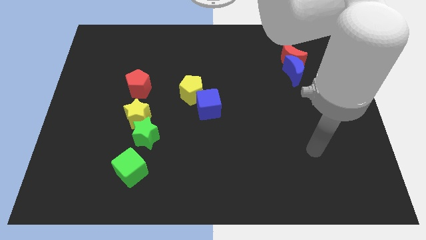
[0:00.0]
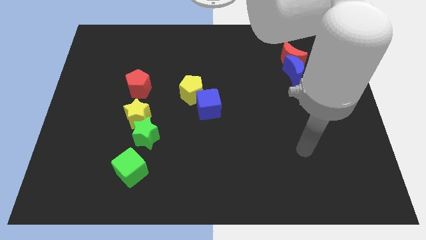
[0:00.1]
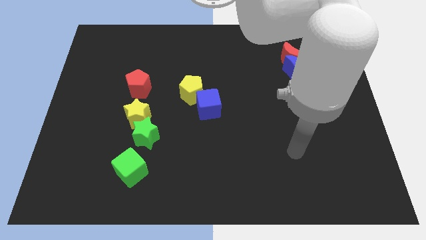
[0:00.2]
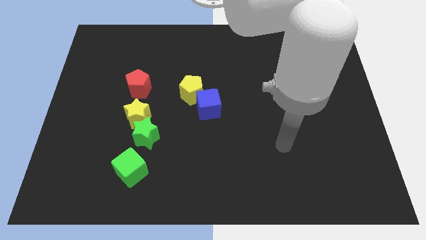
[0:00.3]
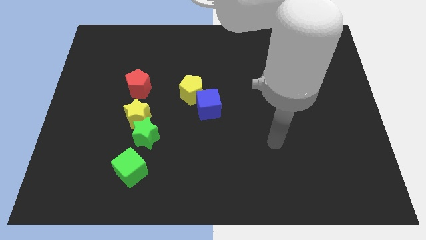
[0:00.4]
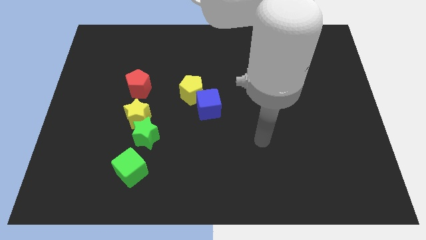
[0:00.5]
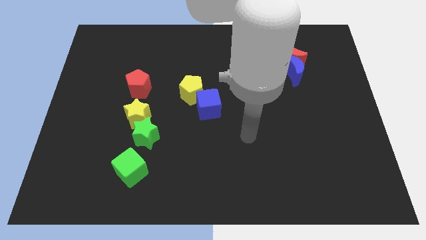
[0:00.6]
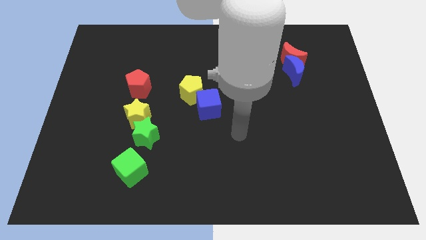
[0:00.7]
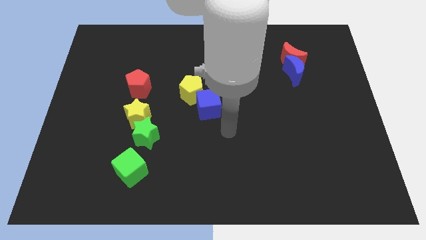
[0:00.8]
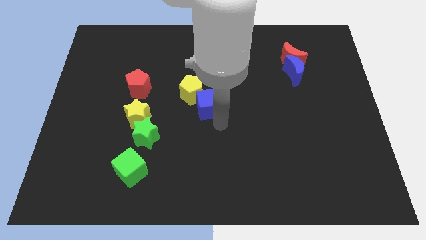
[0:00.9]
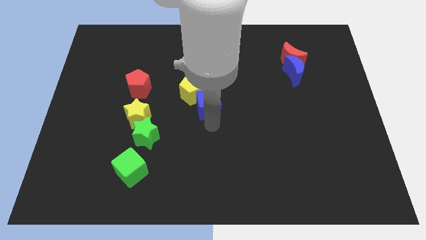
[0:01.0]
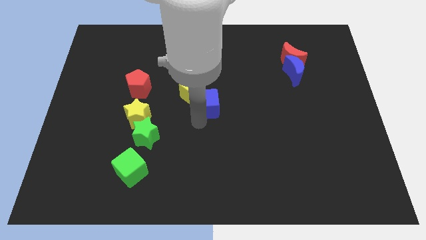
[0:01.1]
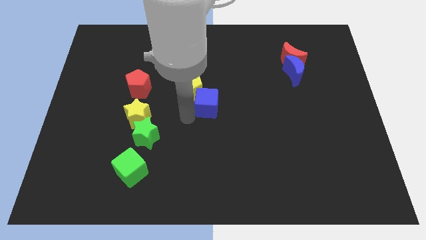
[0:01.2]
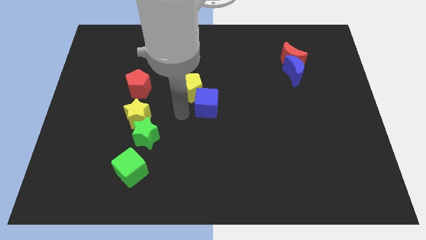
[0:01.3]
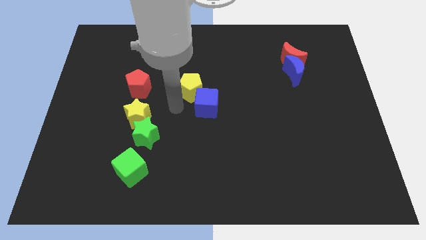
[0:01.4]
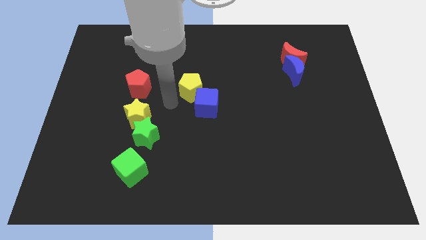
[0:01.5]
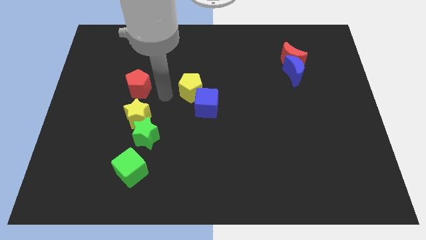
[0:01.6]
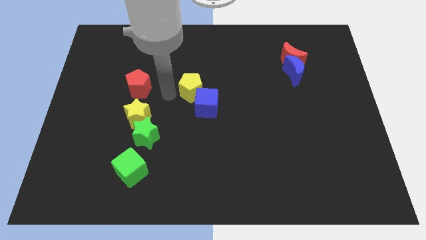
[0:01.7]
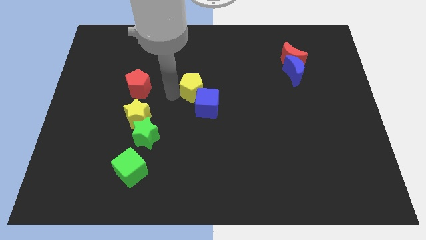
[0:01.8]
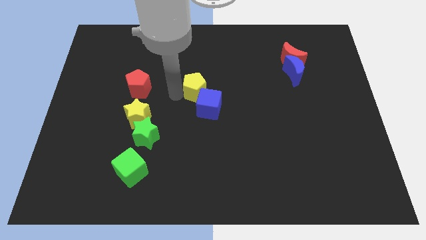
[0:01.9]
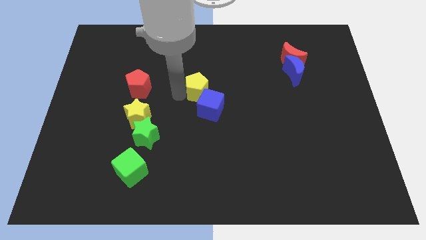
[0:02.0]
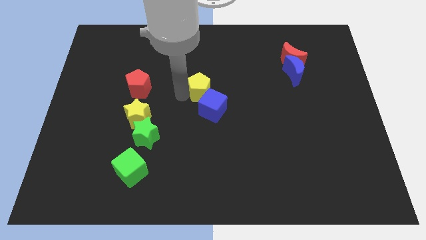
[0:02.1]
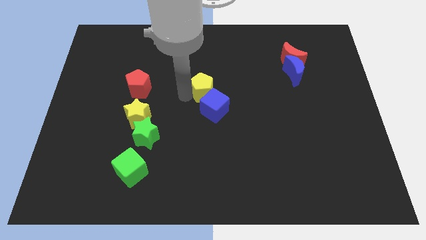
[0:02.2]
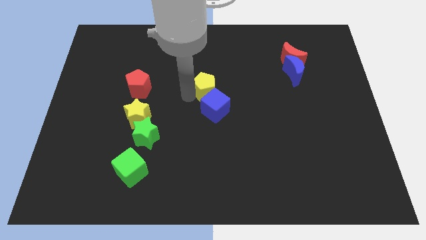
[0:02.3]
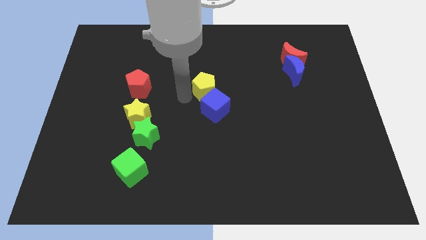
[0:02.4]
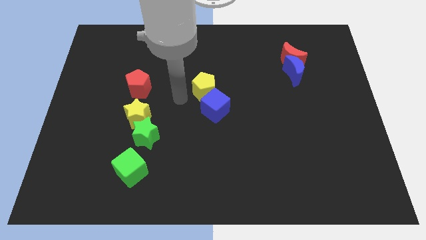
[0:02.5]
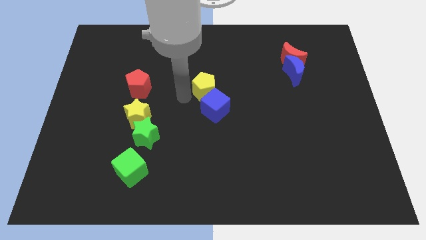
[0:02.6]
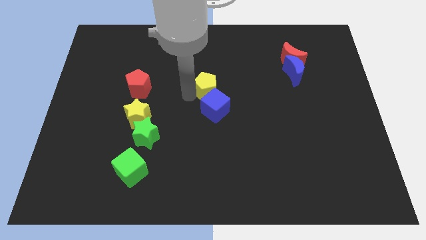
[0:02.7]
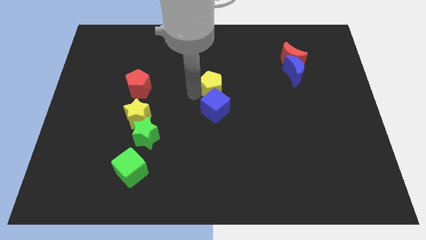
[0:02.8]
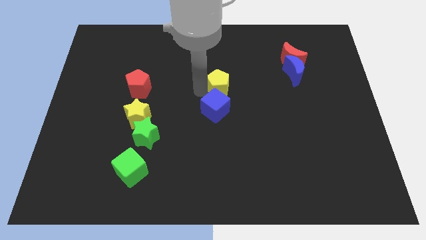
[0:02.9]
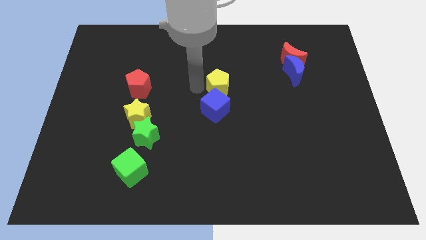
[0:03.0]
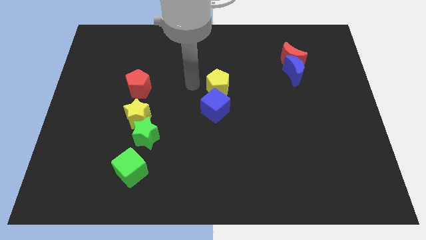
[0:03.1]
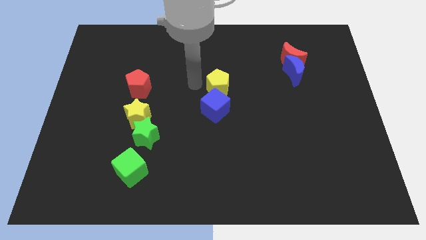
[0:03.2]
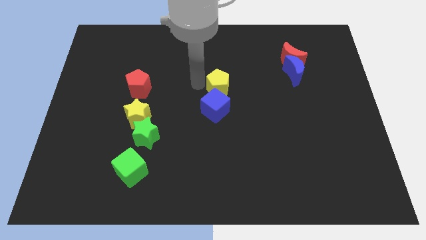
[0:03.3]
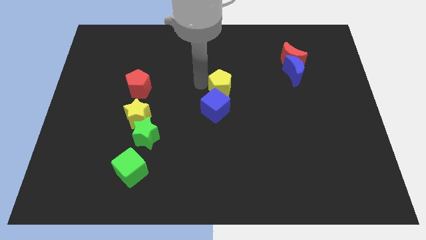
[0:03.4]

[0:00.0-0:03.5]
slightly push the yellow pentagon to the right

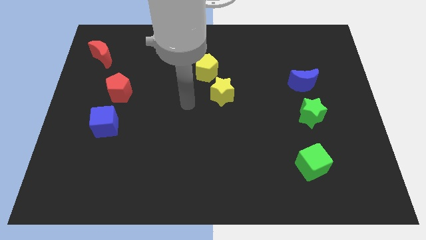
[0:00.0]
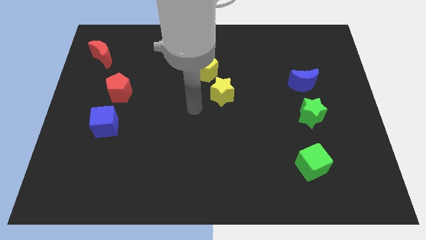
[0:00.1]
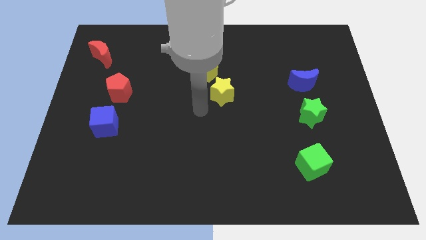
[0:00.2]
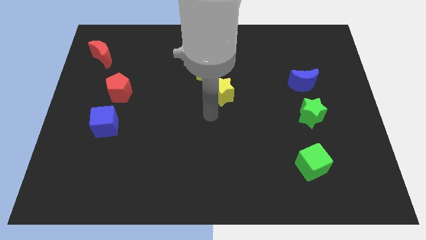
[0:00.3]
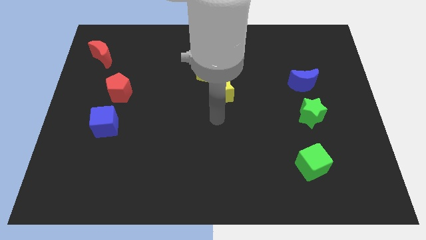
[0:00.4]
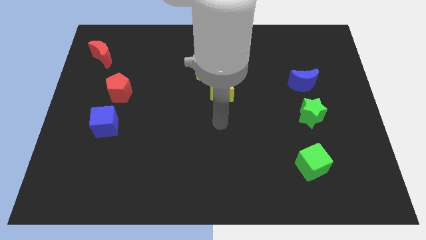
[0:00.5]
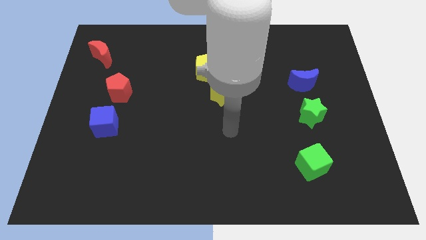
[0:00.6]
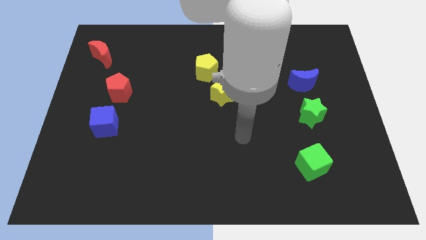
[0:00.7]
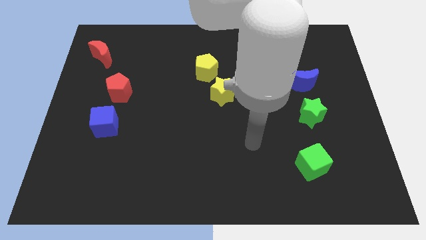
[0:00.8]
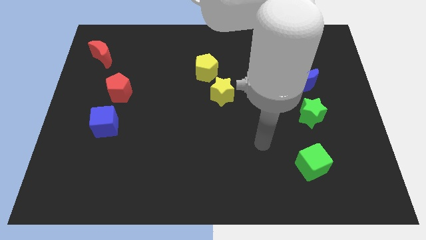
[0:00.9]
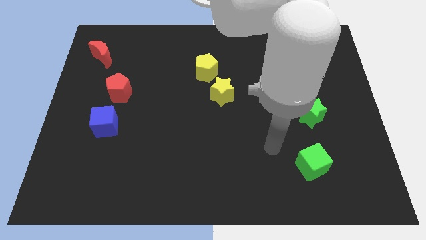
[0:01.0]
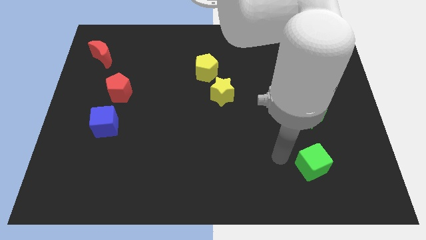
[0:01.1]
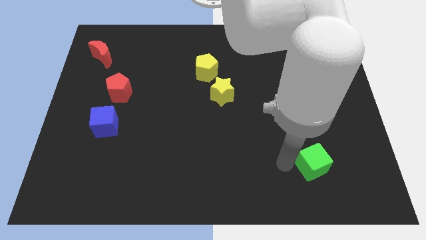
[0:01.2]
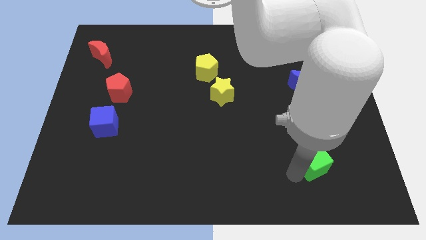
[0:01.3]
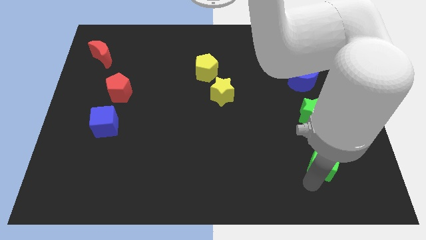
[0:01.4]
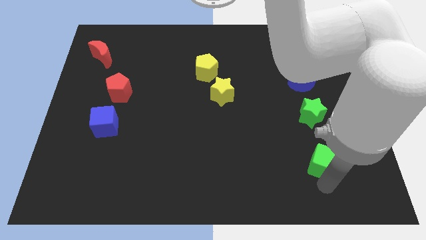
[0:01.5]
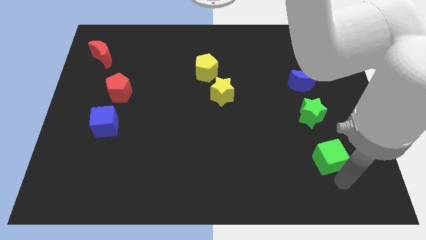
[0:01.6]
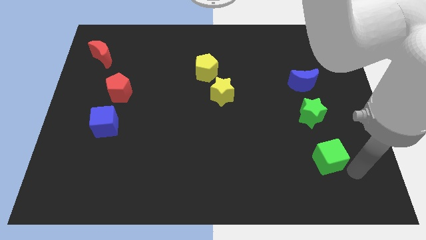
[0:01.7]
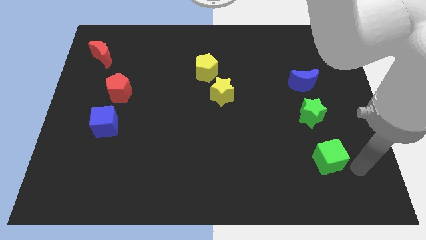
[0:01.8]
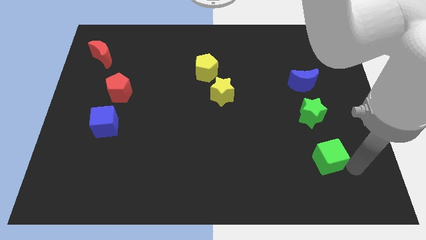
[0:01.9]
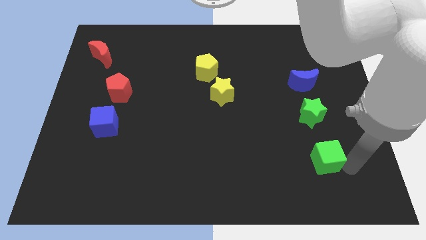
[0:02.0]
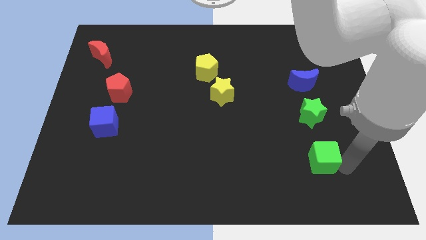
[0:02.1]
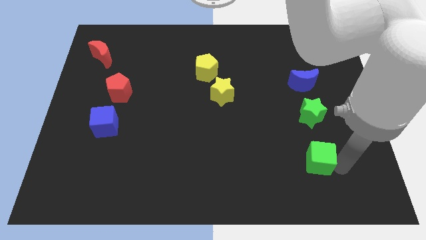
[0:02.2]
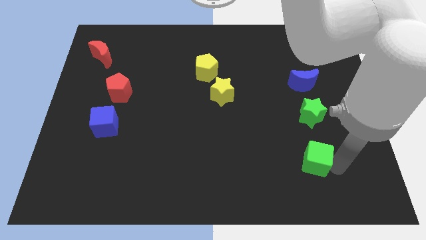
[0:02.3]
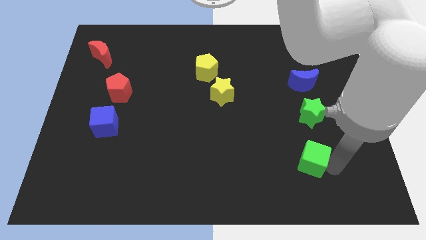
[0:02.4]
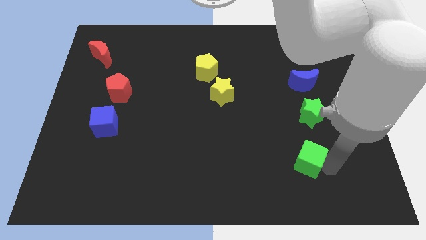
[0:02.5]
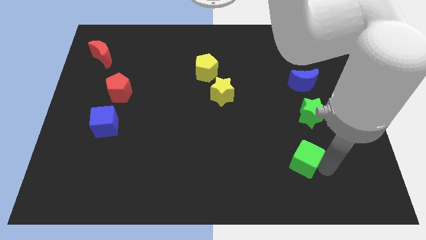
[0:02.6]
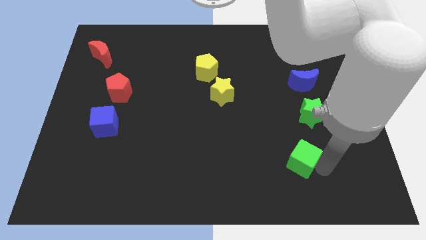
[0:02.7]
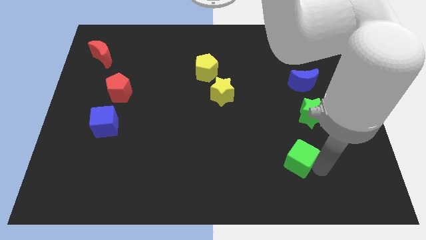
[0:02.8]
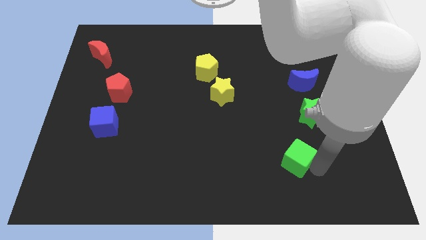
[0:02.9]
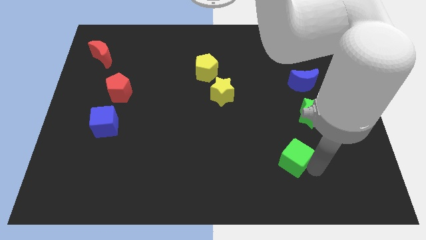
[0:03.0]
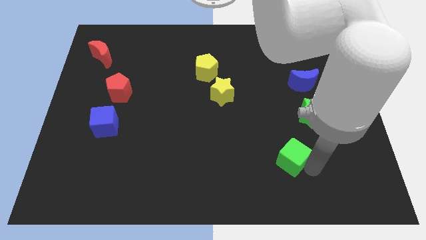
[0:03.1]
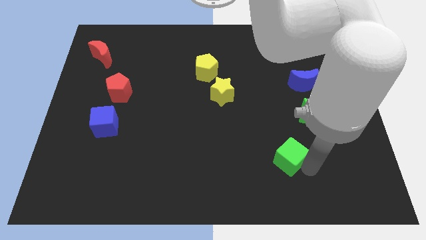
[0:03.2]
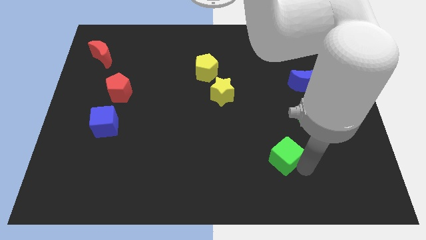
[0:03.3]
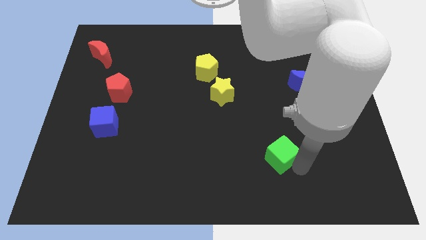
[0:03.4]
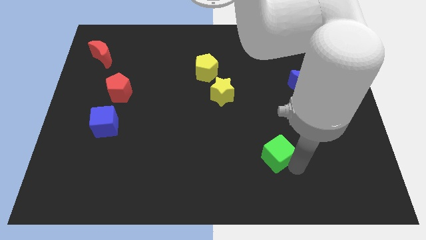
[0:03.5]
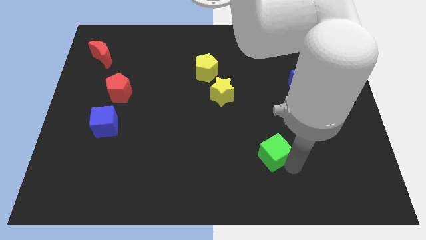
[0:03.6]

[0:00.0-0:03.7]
slide the green cube upwards and then left a bit

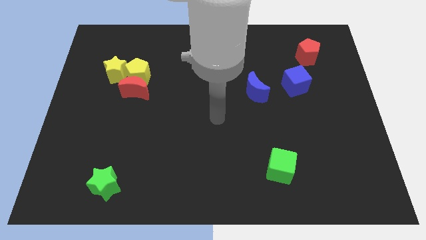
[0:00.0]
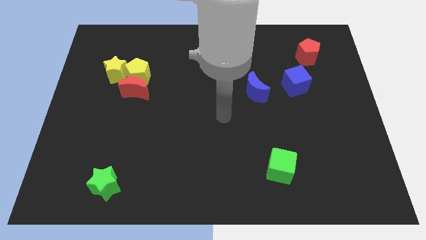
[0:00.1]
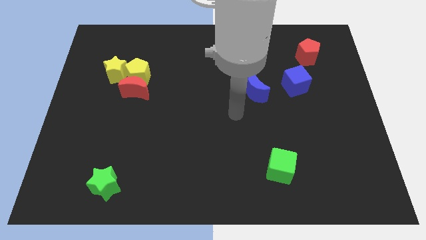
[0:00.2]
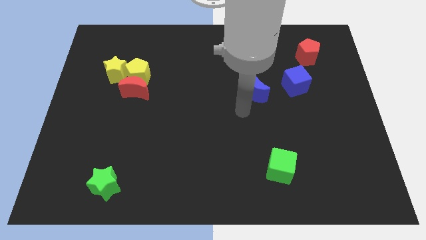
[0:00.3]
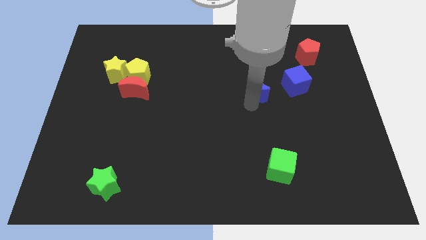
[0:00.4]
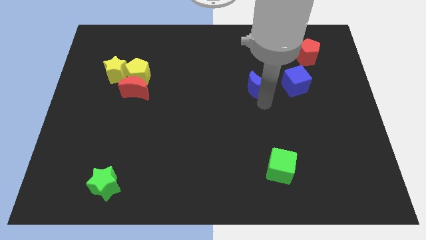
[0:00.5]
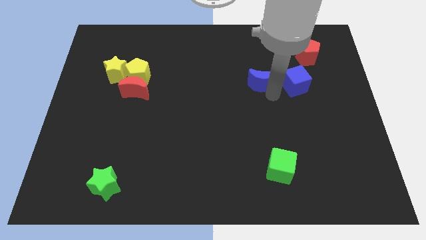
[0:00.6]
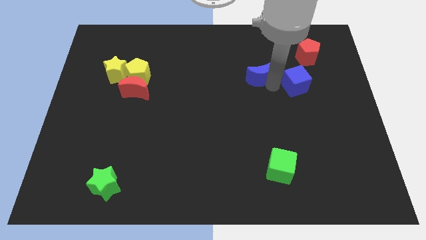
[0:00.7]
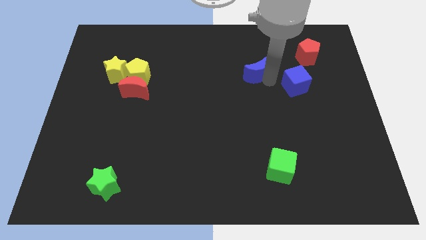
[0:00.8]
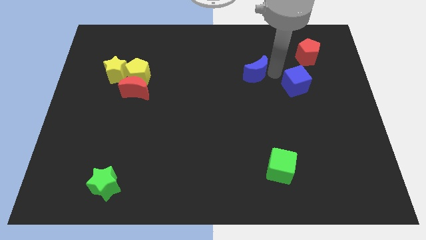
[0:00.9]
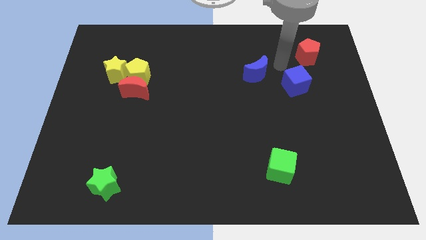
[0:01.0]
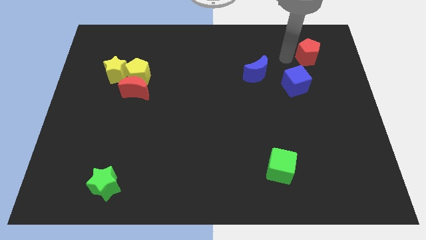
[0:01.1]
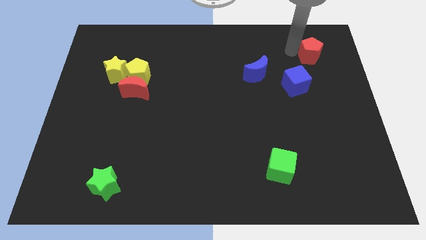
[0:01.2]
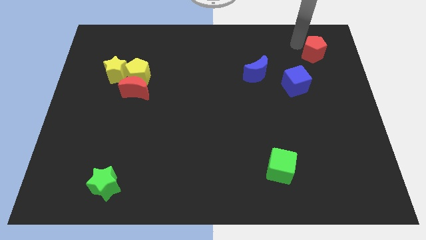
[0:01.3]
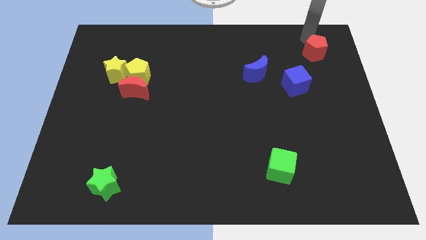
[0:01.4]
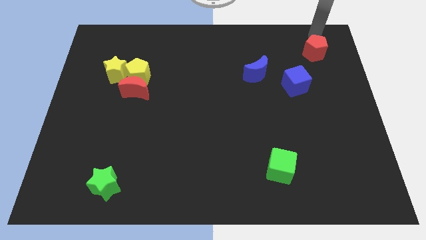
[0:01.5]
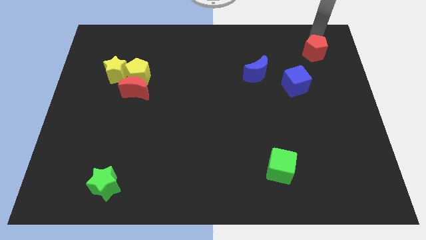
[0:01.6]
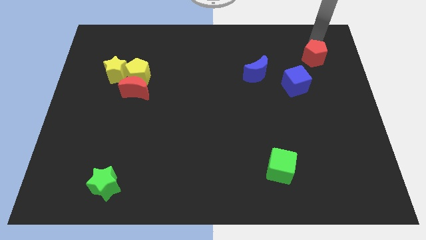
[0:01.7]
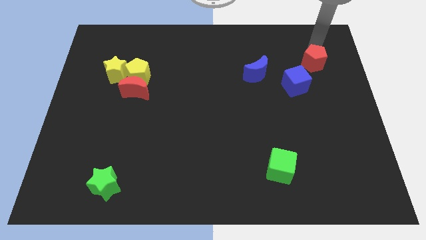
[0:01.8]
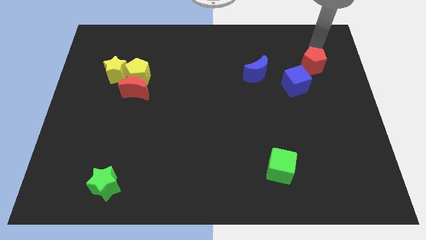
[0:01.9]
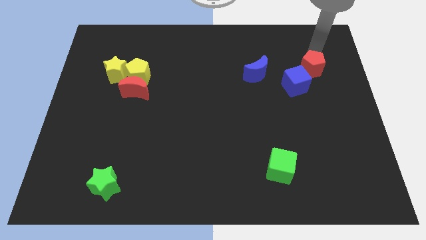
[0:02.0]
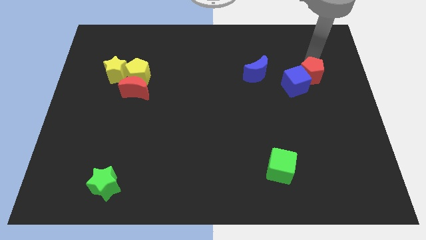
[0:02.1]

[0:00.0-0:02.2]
move the red pentagon a bit downwards
